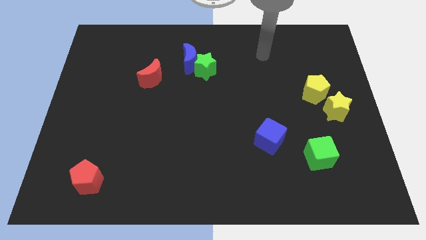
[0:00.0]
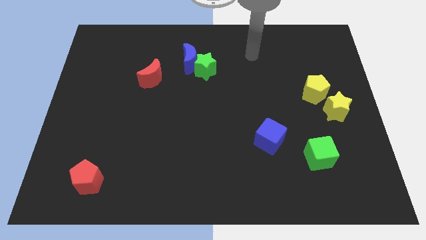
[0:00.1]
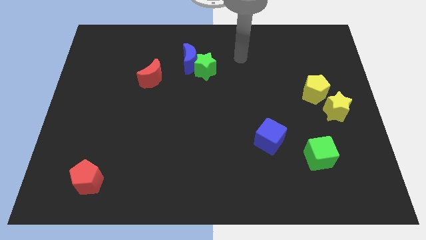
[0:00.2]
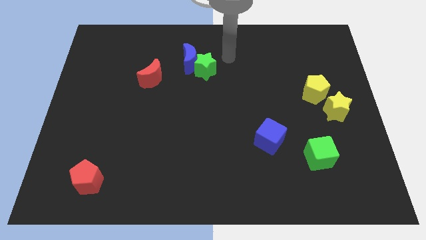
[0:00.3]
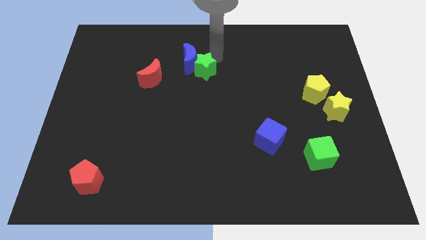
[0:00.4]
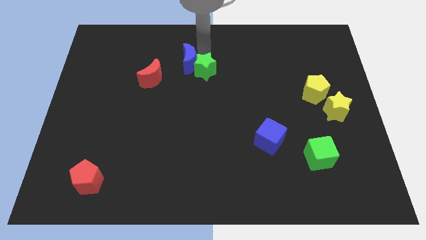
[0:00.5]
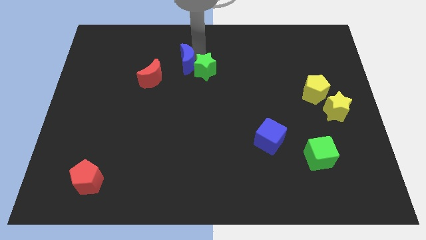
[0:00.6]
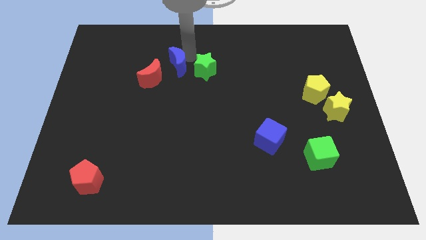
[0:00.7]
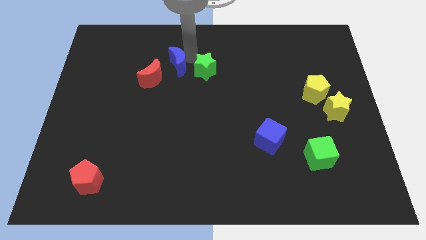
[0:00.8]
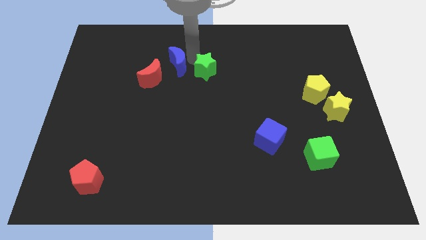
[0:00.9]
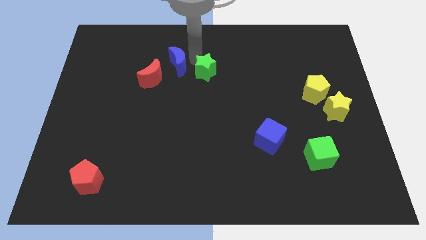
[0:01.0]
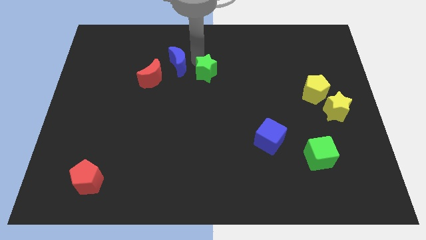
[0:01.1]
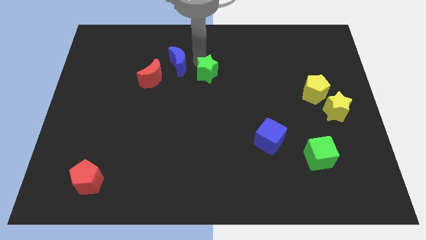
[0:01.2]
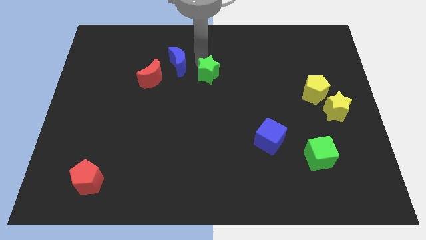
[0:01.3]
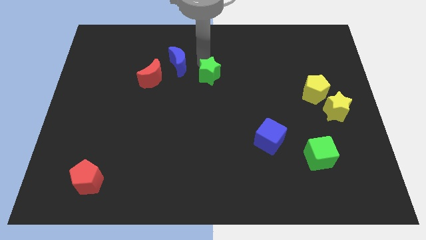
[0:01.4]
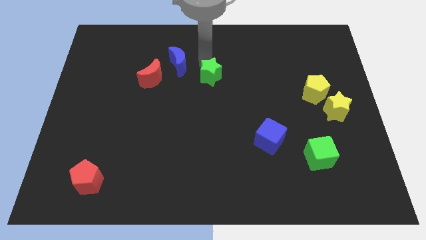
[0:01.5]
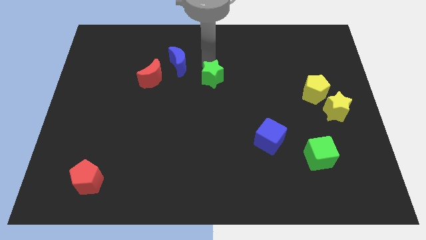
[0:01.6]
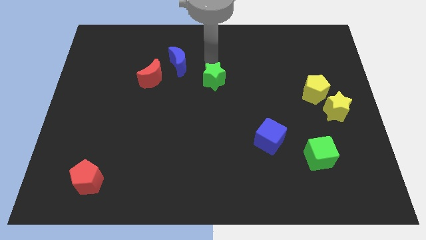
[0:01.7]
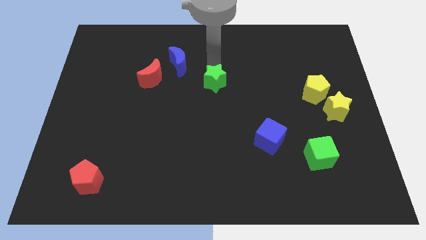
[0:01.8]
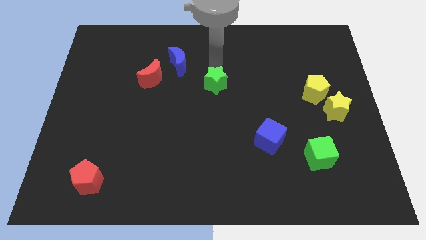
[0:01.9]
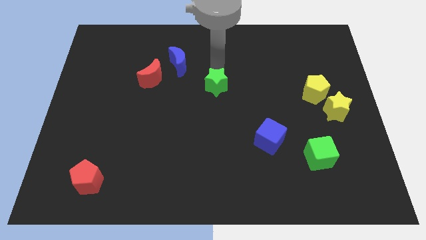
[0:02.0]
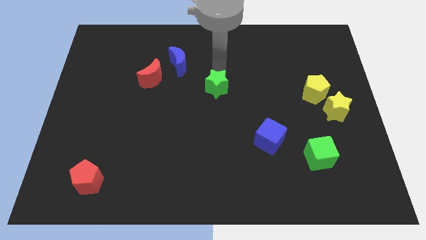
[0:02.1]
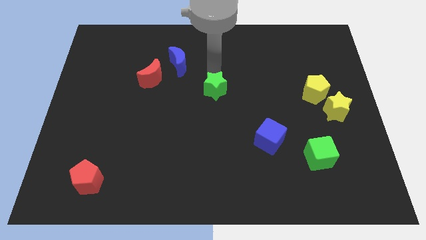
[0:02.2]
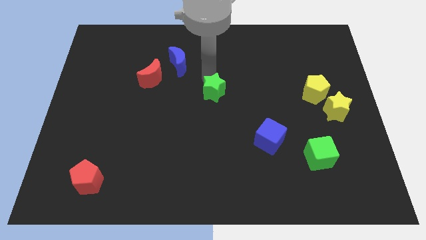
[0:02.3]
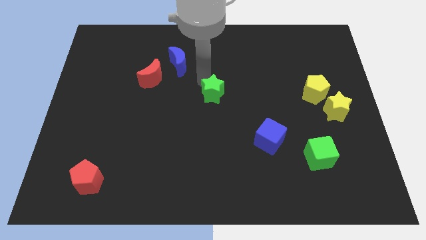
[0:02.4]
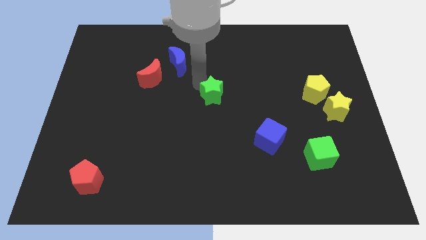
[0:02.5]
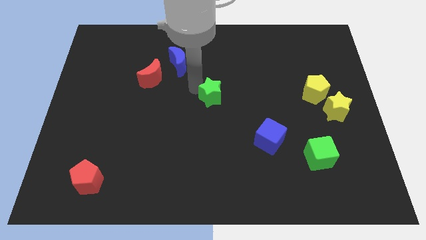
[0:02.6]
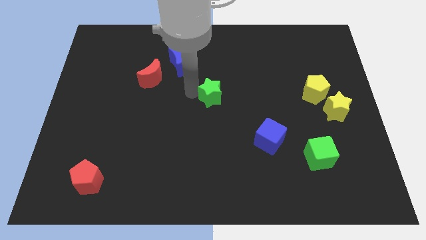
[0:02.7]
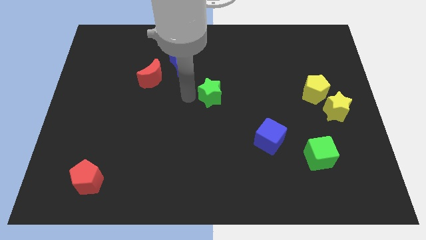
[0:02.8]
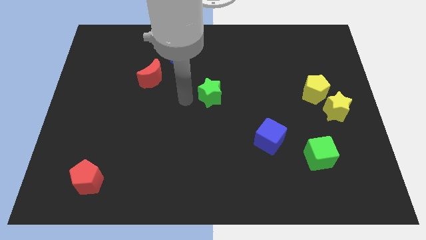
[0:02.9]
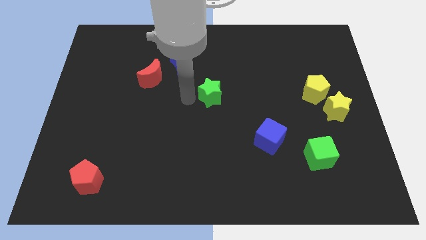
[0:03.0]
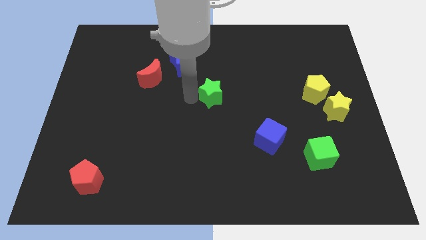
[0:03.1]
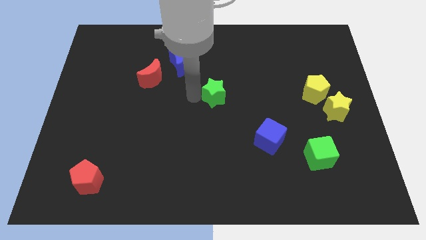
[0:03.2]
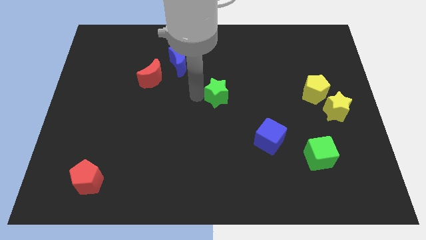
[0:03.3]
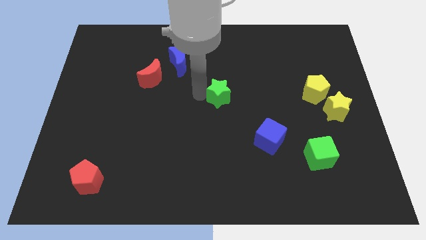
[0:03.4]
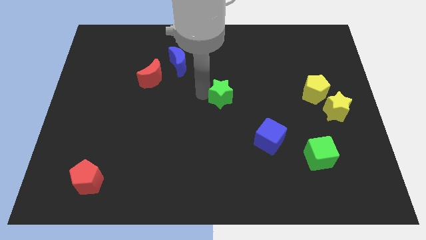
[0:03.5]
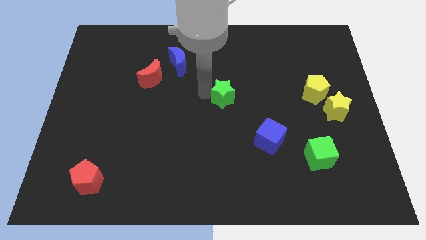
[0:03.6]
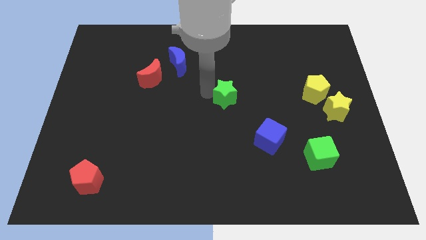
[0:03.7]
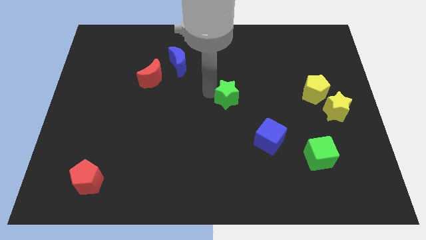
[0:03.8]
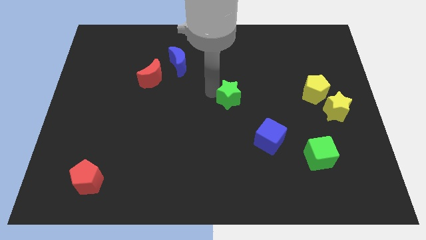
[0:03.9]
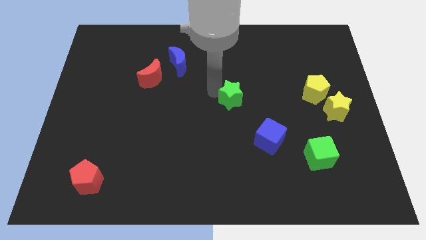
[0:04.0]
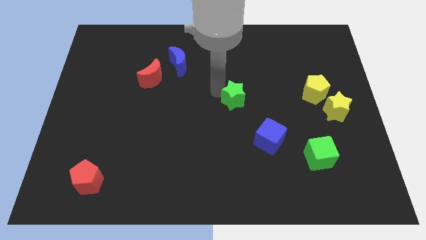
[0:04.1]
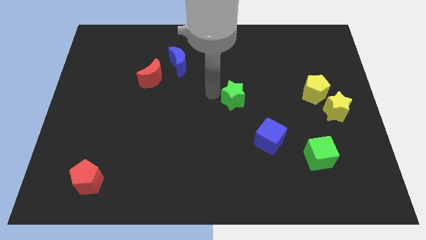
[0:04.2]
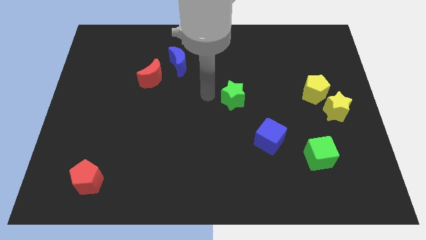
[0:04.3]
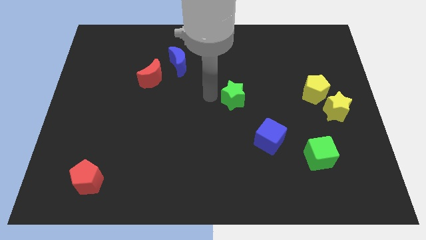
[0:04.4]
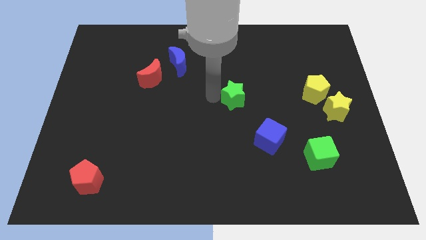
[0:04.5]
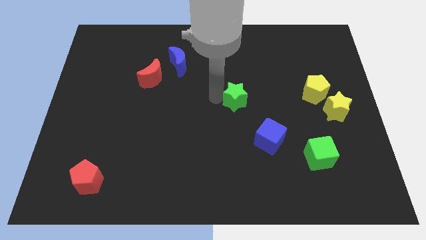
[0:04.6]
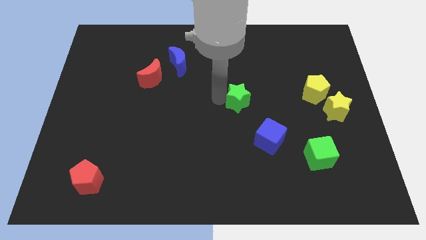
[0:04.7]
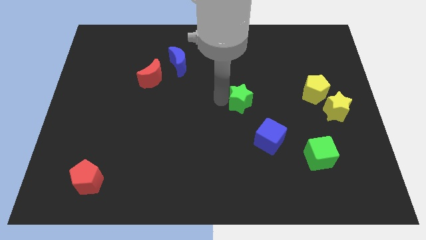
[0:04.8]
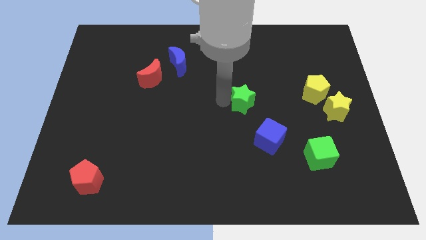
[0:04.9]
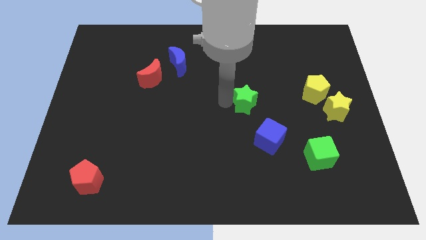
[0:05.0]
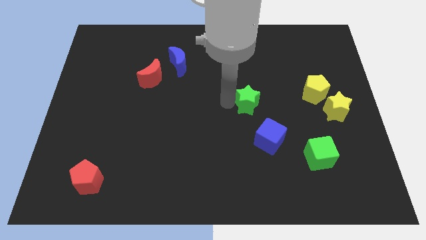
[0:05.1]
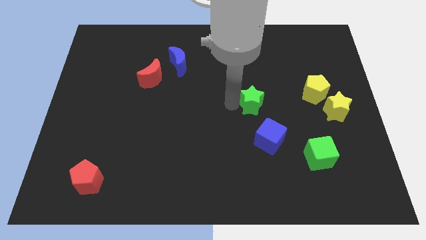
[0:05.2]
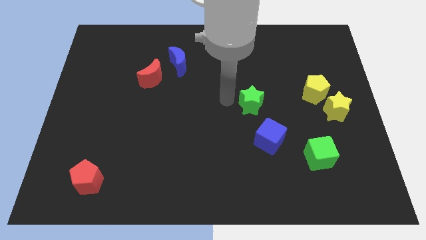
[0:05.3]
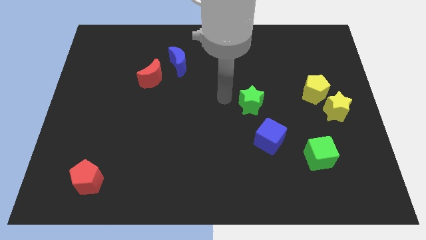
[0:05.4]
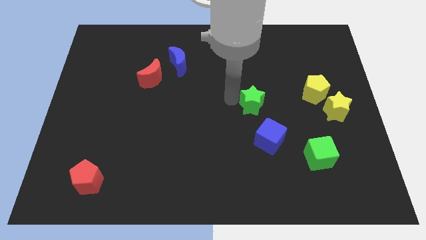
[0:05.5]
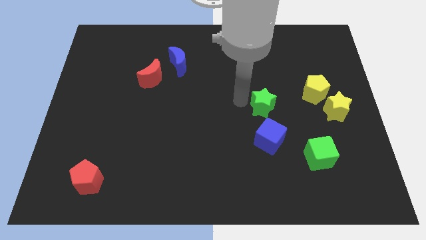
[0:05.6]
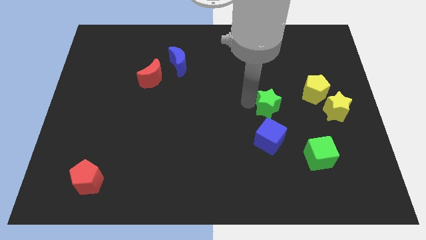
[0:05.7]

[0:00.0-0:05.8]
put the green star to the left side of the yellow star

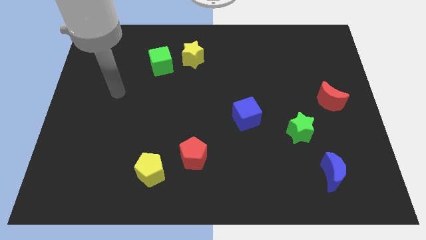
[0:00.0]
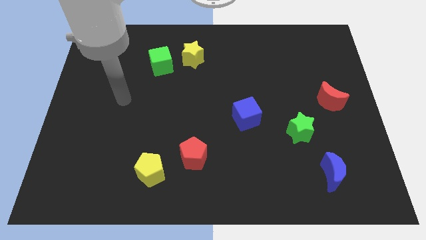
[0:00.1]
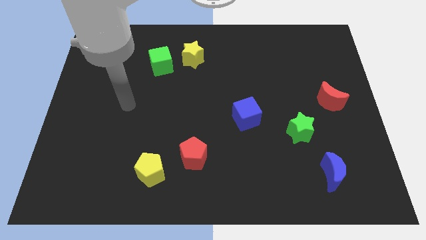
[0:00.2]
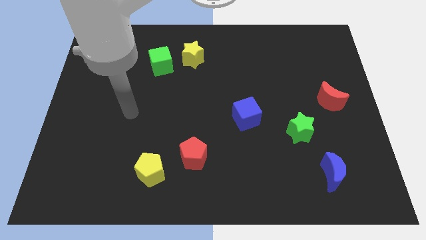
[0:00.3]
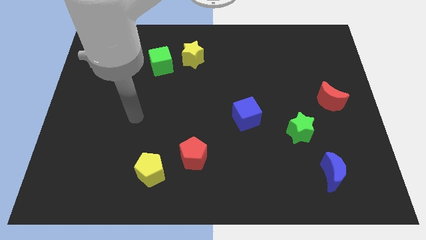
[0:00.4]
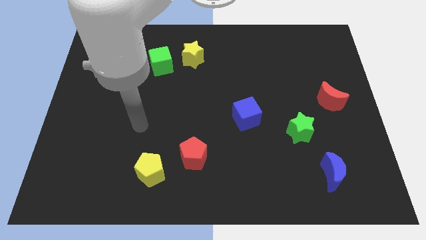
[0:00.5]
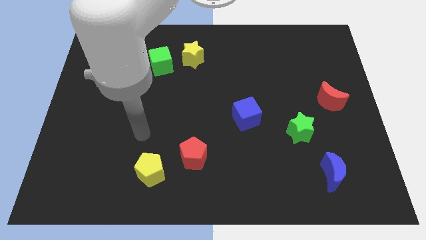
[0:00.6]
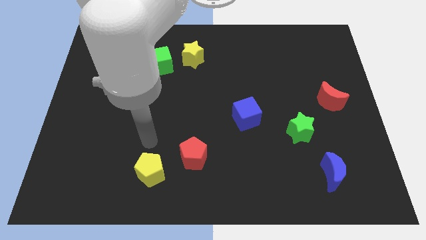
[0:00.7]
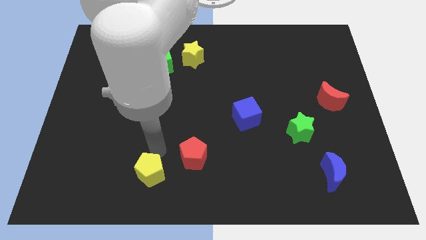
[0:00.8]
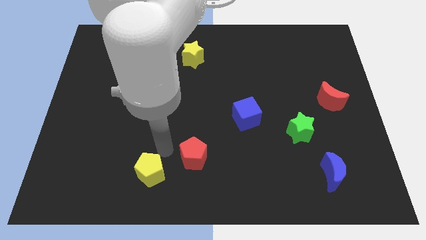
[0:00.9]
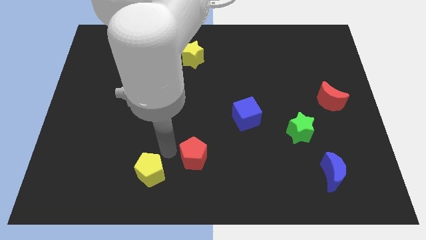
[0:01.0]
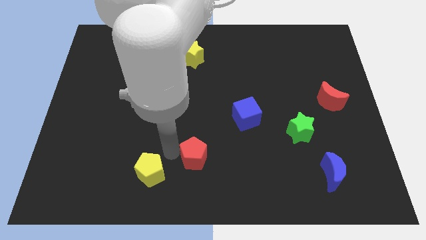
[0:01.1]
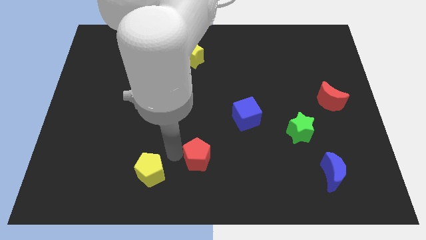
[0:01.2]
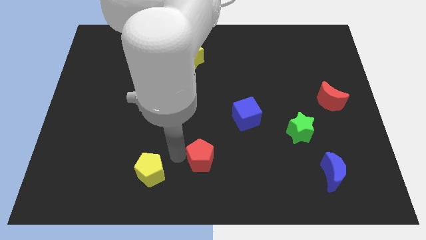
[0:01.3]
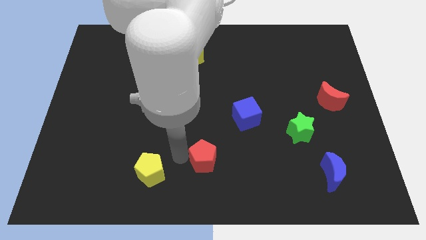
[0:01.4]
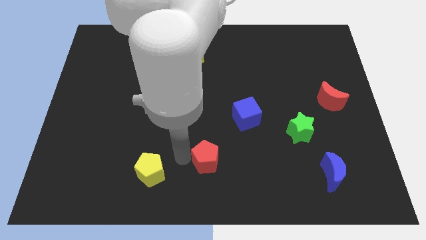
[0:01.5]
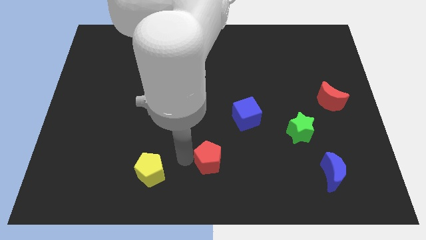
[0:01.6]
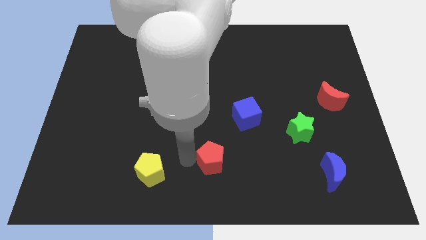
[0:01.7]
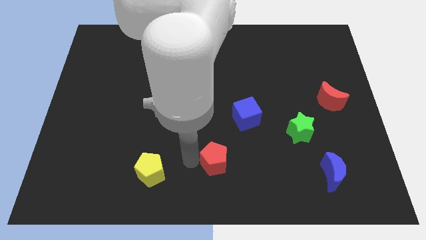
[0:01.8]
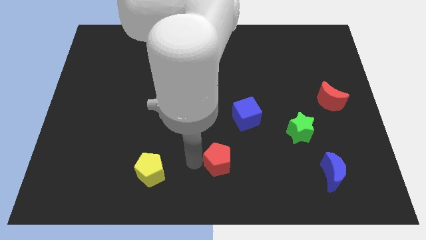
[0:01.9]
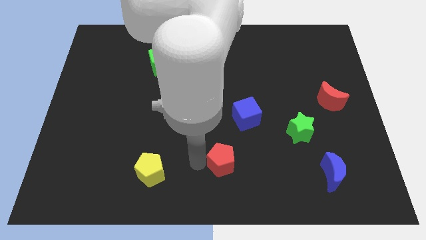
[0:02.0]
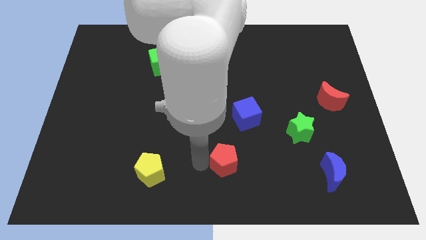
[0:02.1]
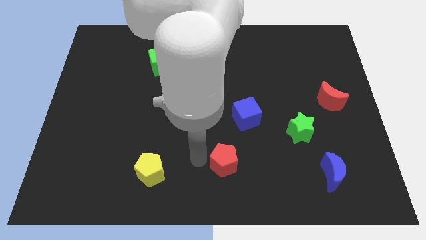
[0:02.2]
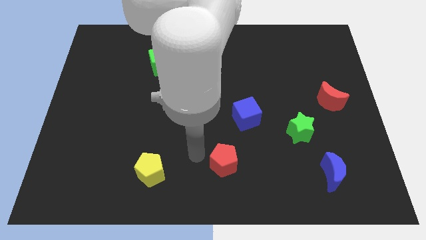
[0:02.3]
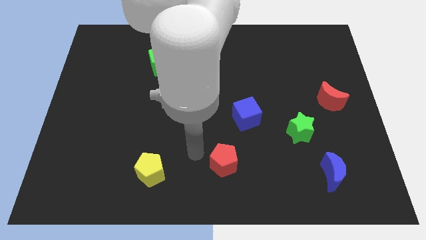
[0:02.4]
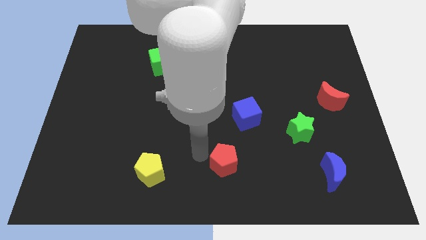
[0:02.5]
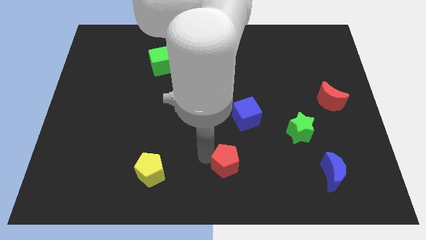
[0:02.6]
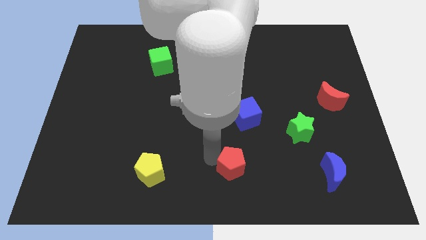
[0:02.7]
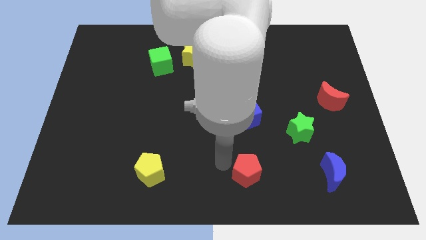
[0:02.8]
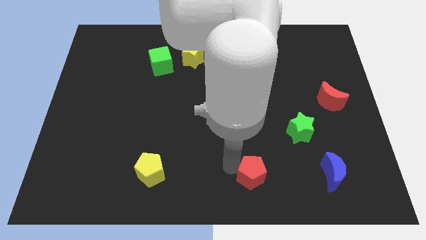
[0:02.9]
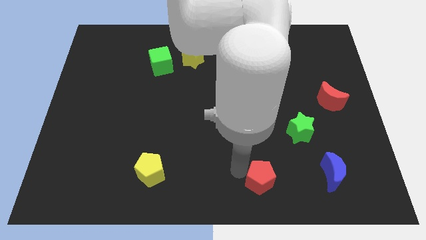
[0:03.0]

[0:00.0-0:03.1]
push the red pentagon to the left side of the blue moon

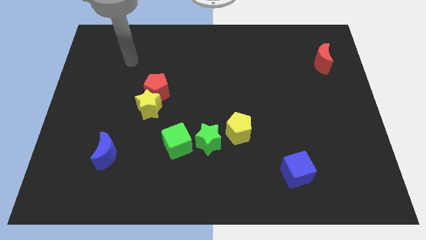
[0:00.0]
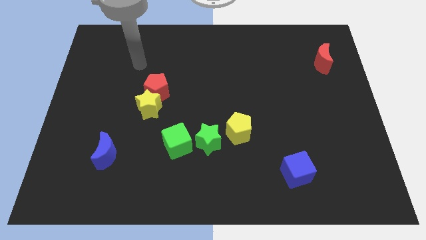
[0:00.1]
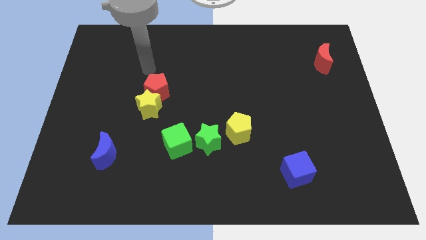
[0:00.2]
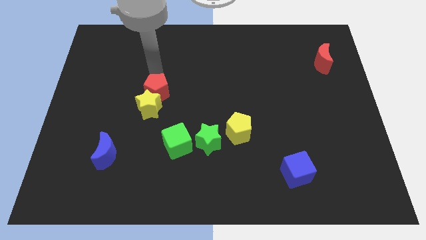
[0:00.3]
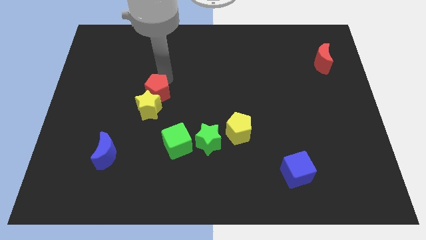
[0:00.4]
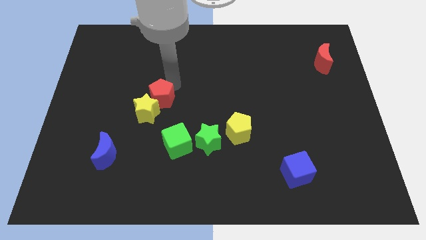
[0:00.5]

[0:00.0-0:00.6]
push the yellow star to the left side of the red pentagon
